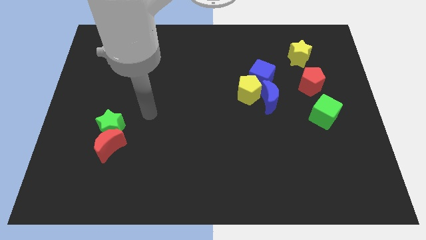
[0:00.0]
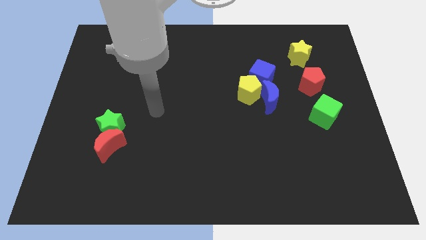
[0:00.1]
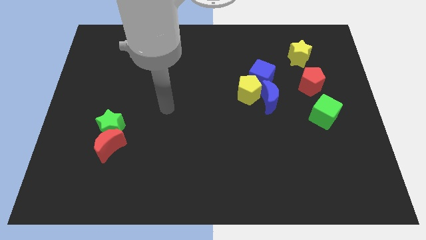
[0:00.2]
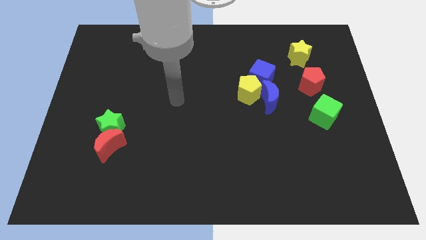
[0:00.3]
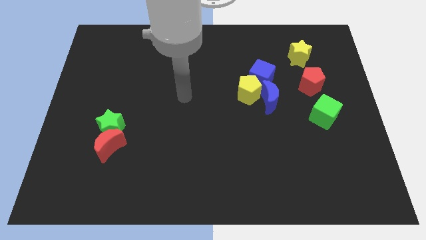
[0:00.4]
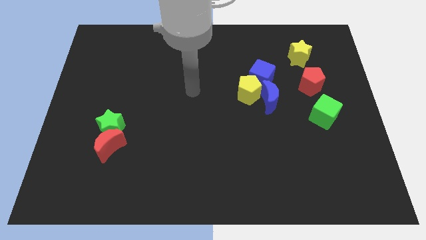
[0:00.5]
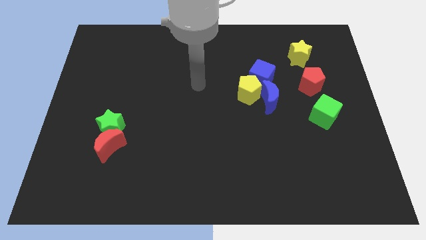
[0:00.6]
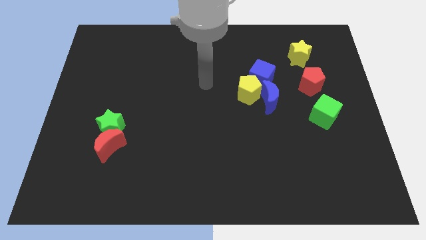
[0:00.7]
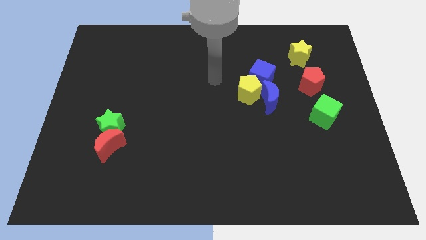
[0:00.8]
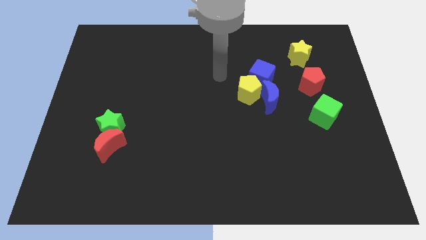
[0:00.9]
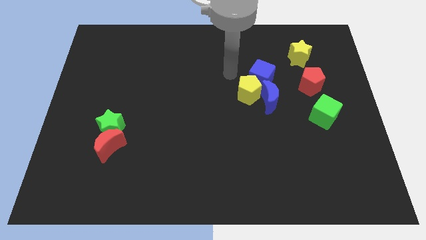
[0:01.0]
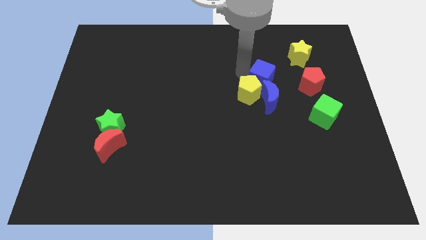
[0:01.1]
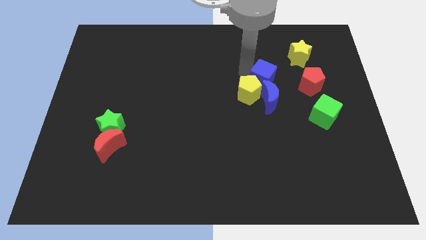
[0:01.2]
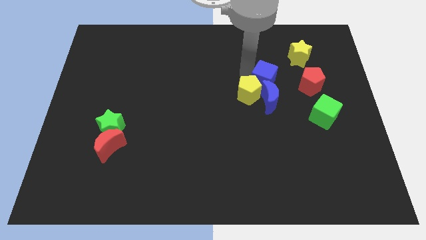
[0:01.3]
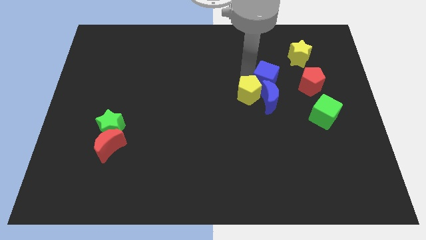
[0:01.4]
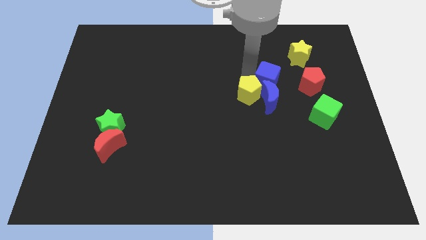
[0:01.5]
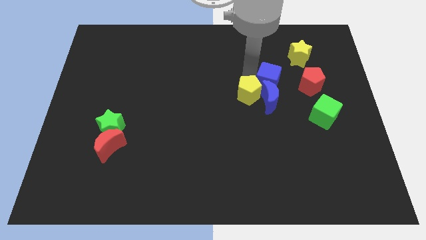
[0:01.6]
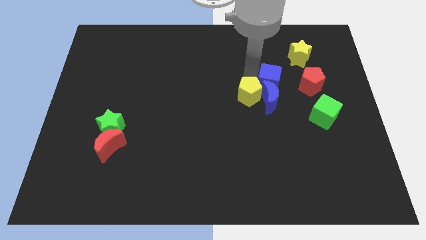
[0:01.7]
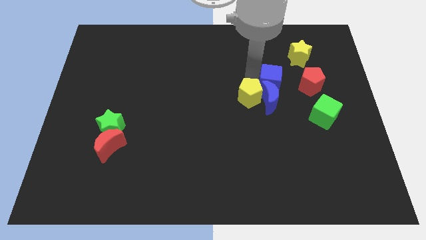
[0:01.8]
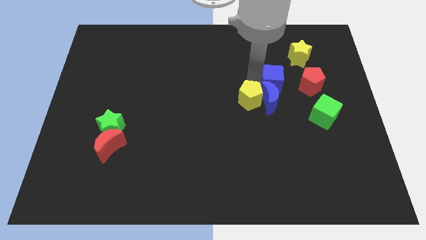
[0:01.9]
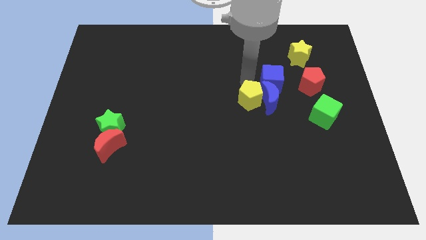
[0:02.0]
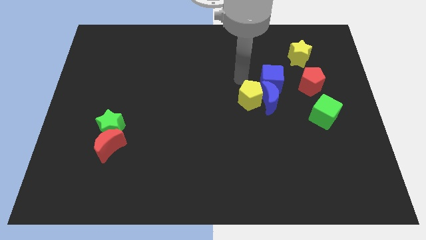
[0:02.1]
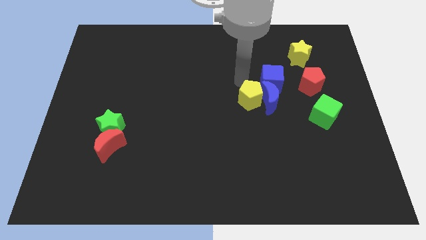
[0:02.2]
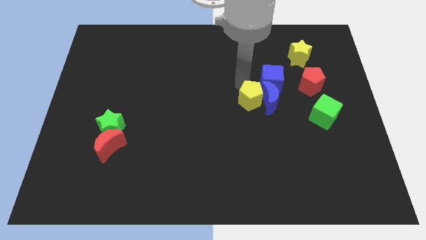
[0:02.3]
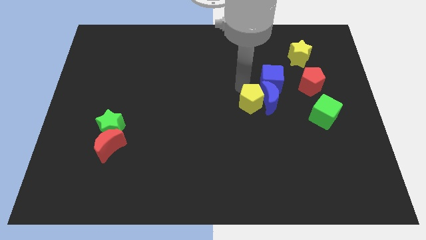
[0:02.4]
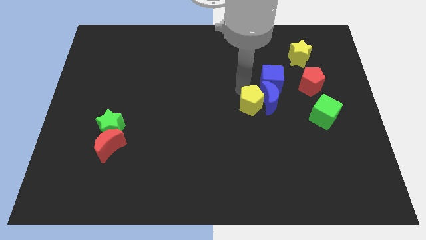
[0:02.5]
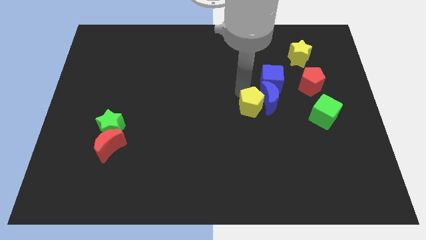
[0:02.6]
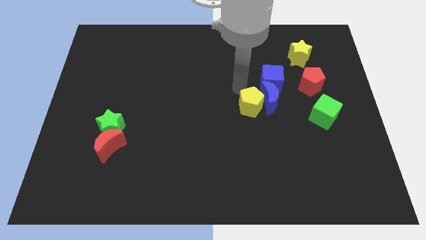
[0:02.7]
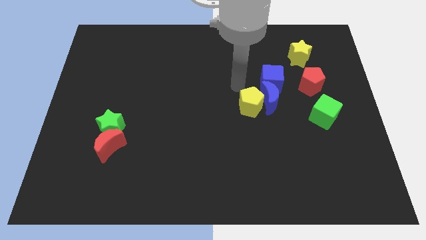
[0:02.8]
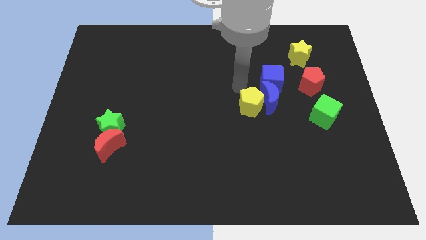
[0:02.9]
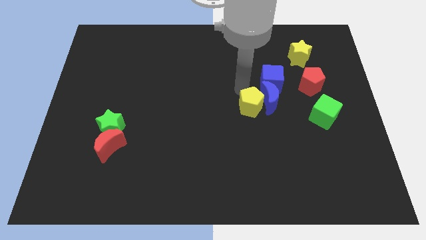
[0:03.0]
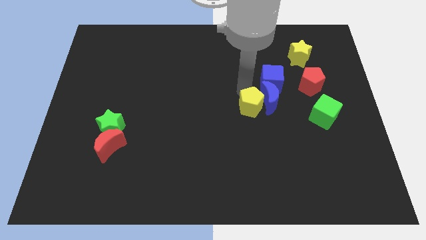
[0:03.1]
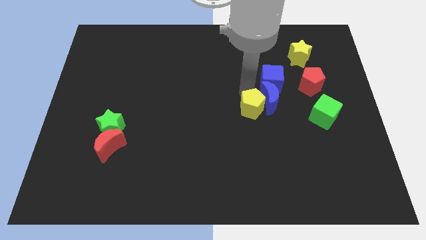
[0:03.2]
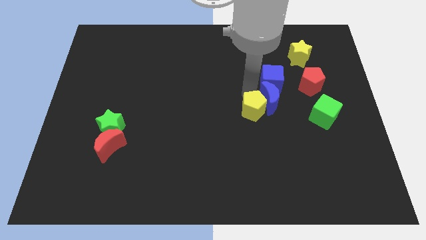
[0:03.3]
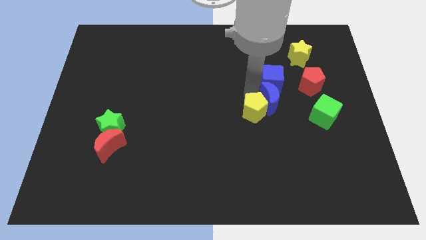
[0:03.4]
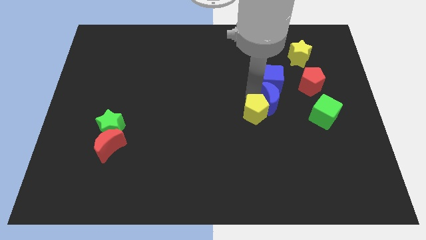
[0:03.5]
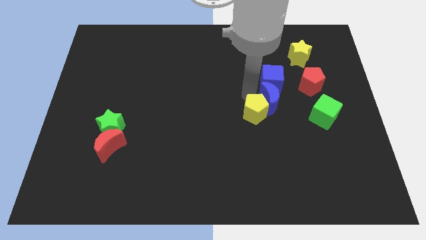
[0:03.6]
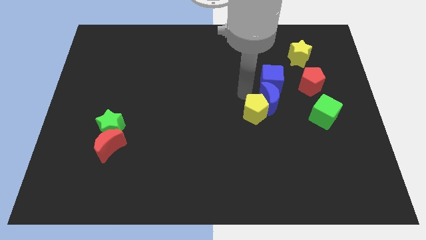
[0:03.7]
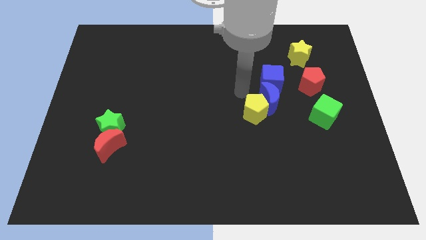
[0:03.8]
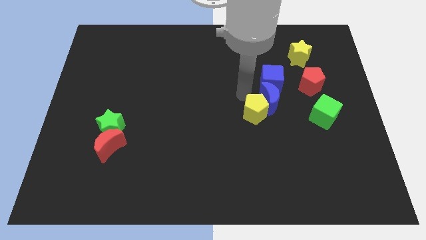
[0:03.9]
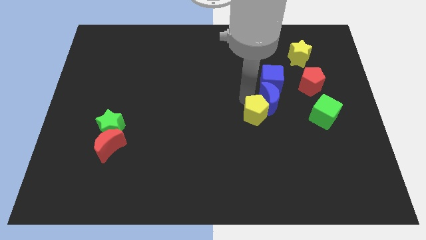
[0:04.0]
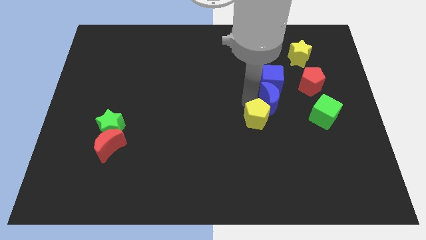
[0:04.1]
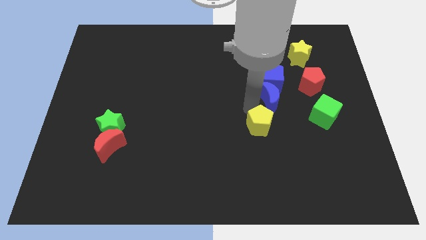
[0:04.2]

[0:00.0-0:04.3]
slide the yellow pentagon a bit downwards and then right

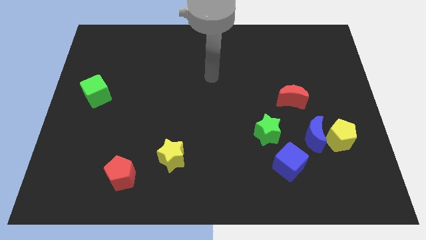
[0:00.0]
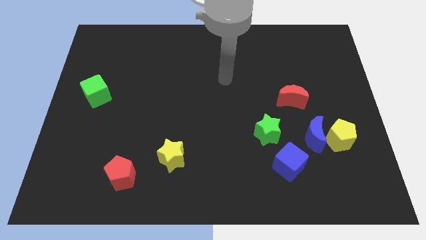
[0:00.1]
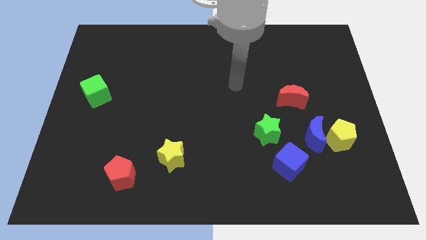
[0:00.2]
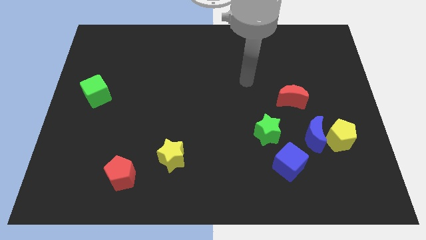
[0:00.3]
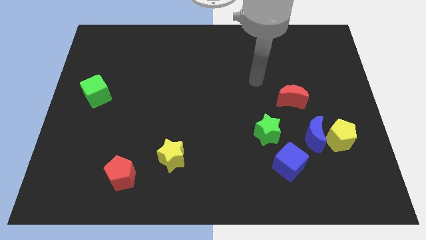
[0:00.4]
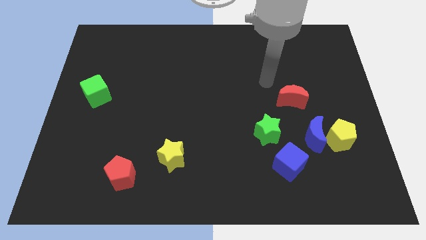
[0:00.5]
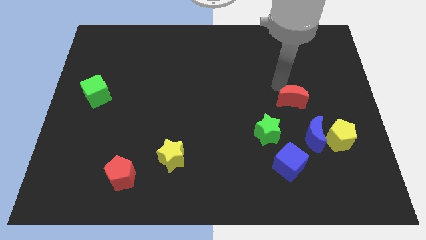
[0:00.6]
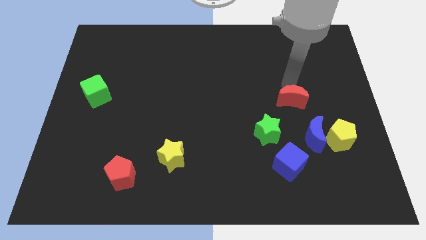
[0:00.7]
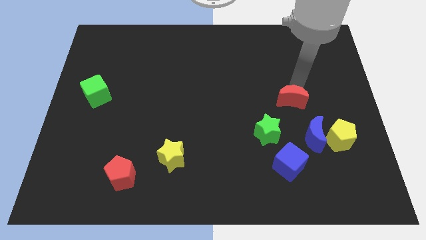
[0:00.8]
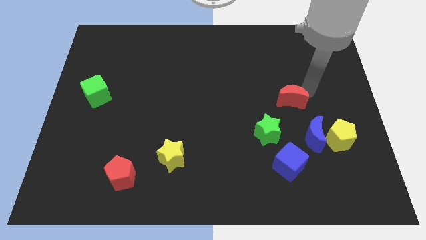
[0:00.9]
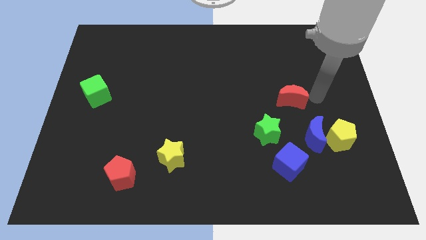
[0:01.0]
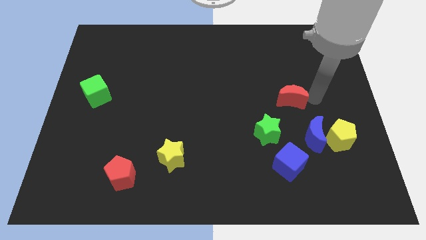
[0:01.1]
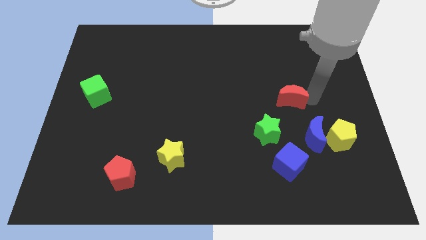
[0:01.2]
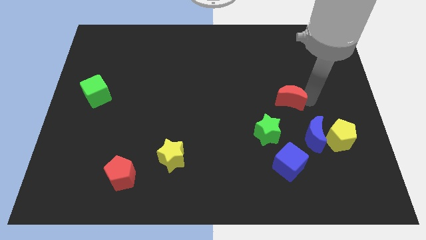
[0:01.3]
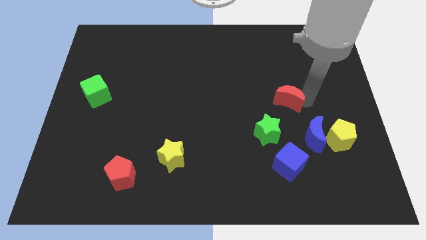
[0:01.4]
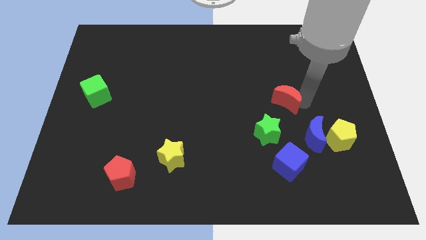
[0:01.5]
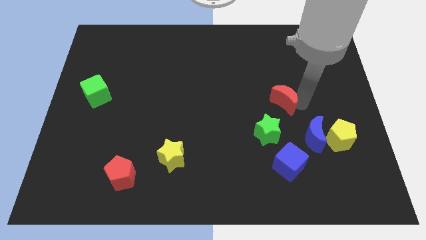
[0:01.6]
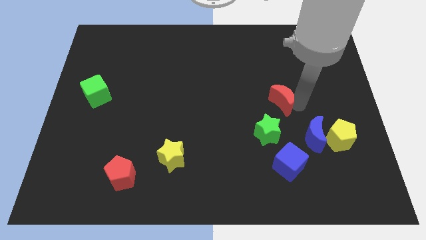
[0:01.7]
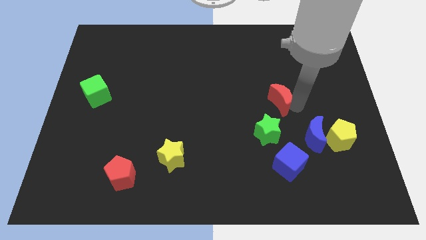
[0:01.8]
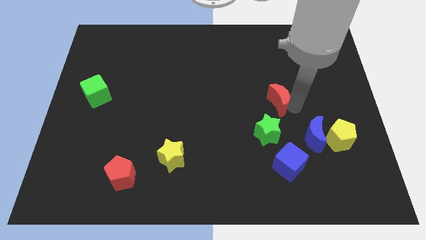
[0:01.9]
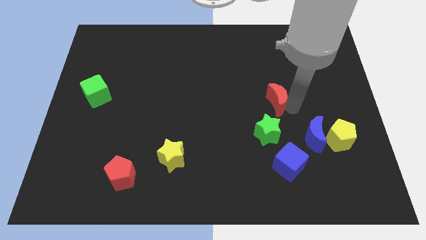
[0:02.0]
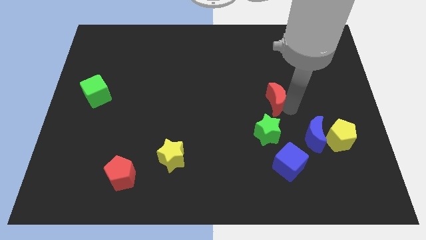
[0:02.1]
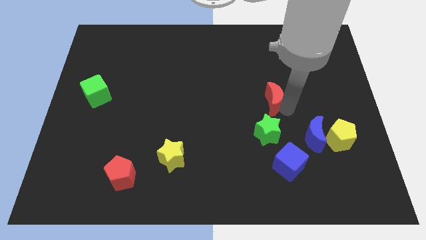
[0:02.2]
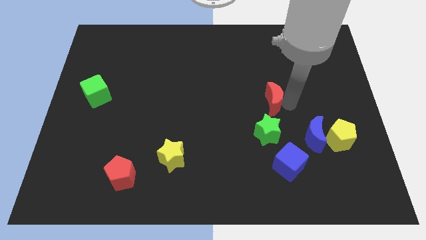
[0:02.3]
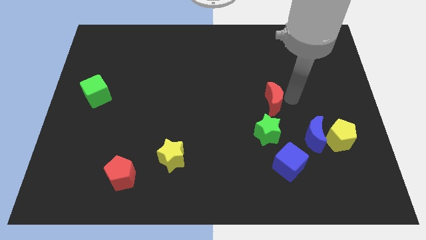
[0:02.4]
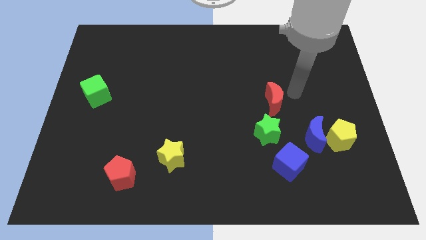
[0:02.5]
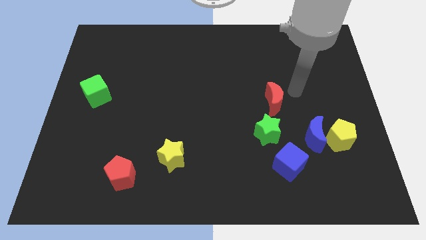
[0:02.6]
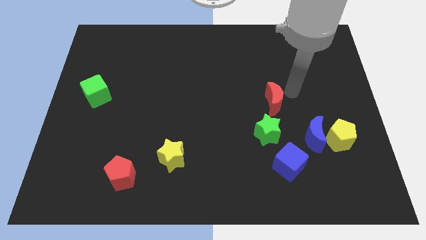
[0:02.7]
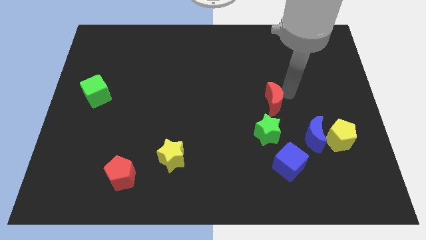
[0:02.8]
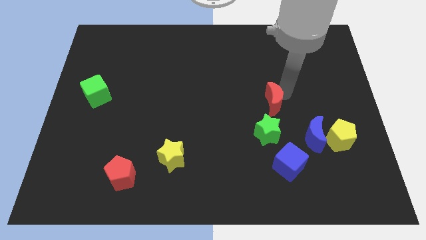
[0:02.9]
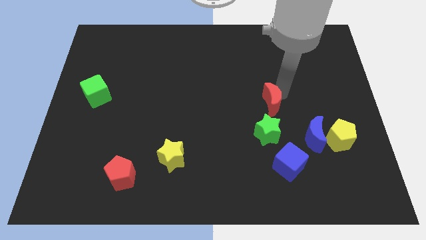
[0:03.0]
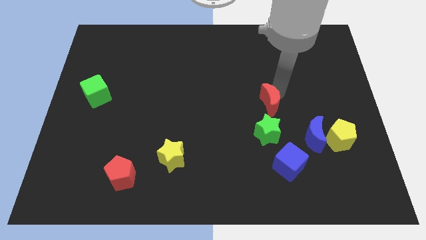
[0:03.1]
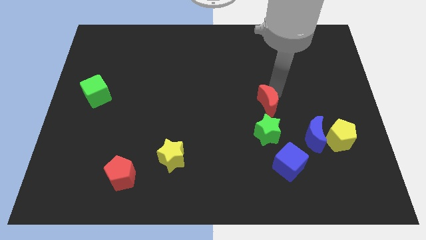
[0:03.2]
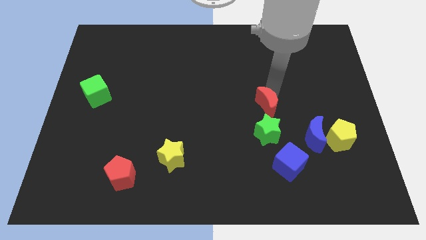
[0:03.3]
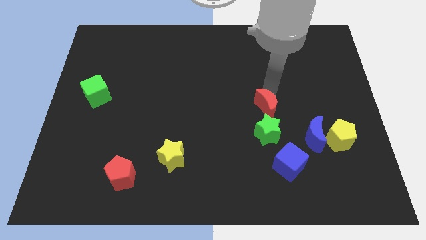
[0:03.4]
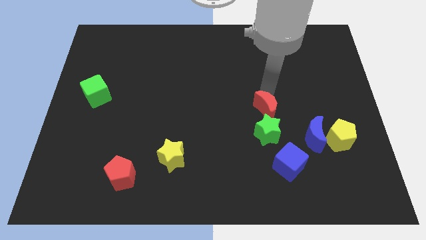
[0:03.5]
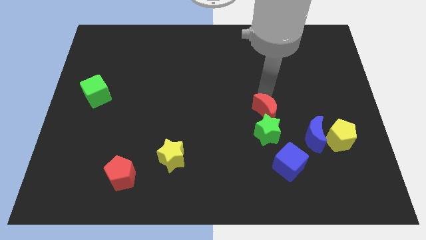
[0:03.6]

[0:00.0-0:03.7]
slightly move the red moon down and then left
